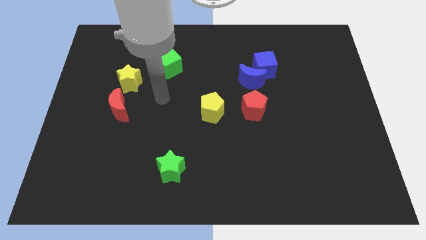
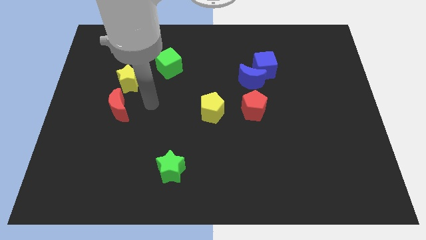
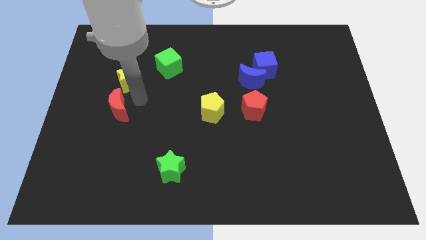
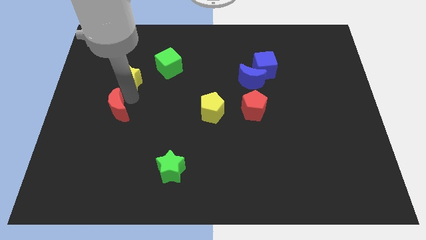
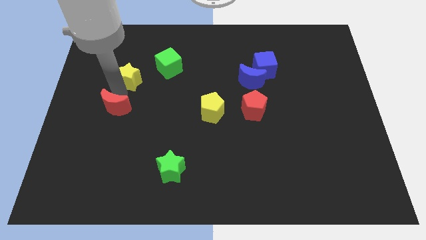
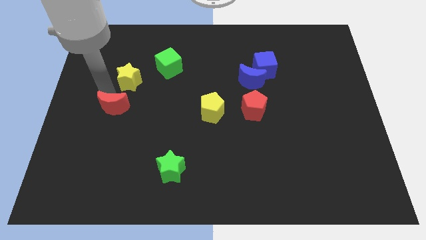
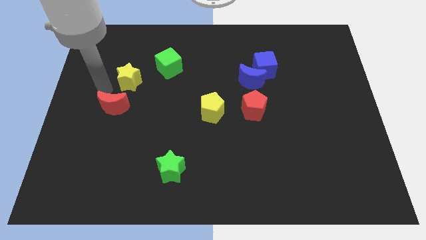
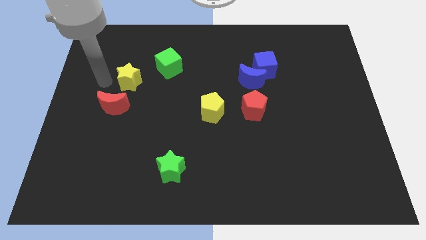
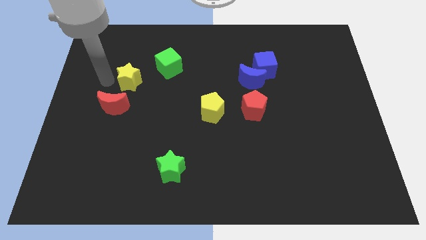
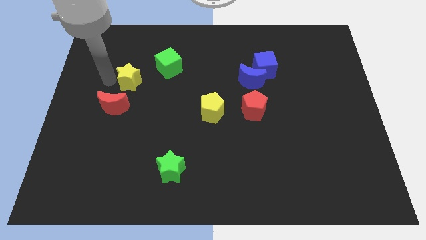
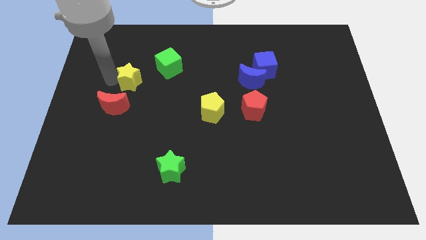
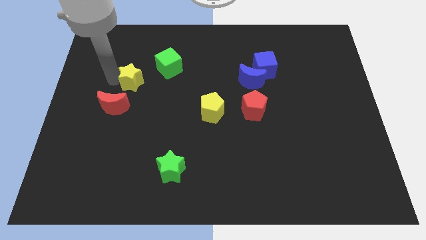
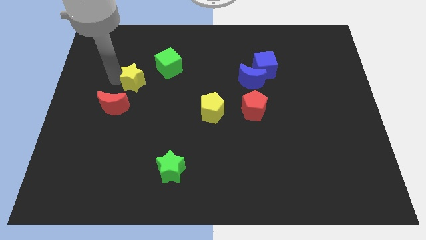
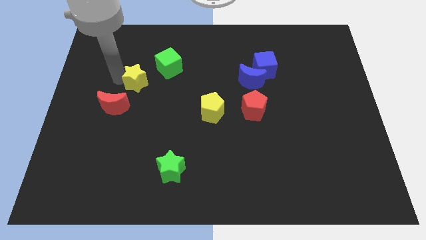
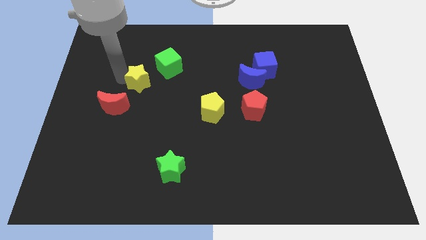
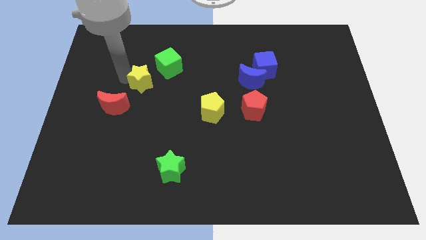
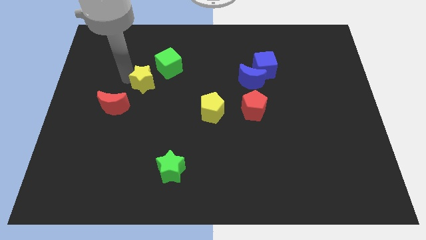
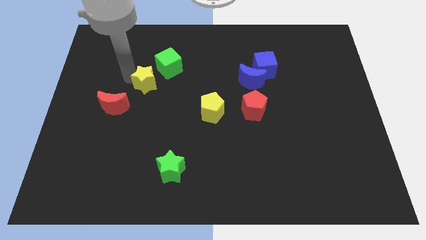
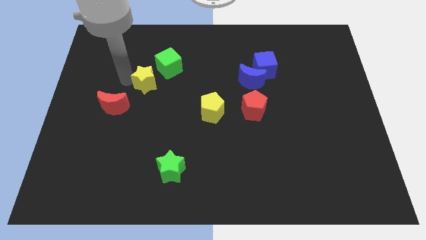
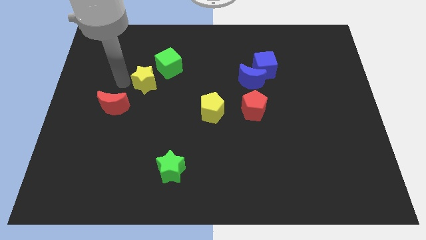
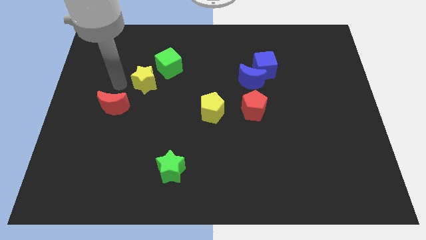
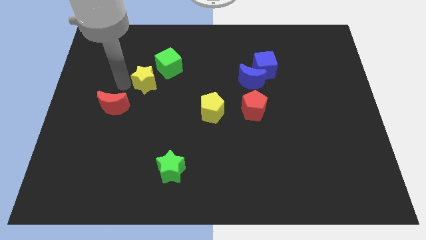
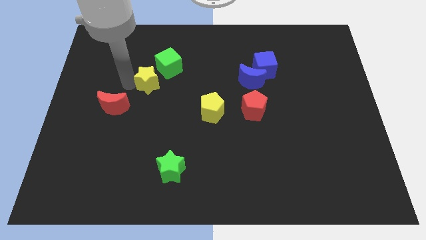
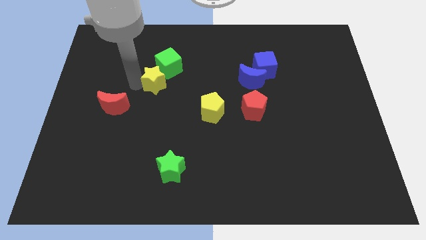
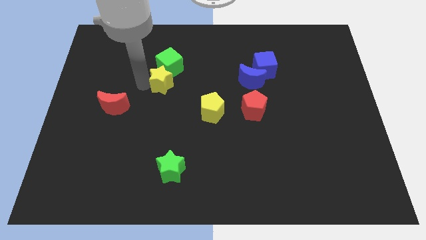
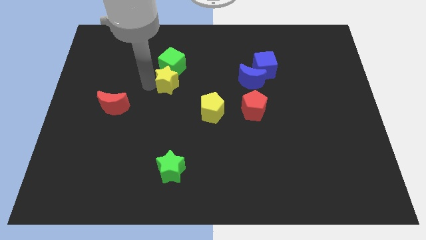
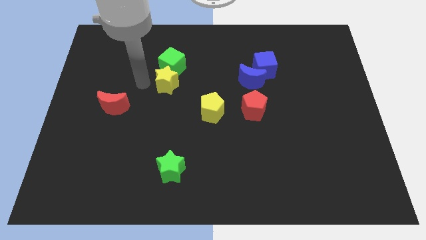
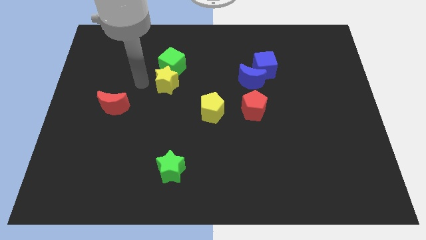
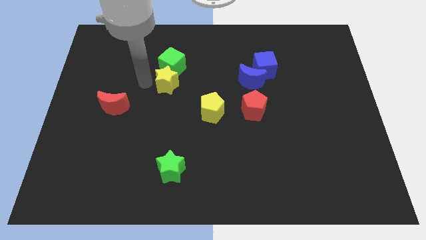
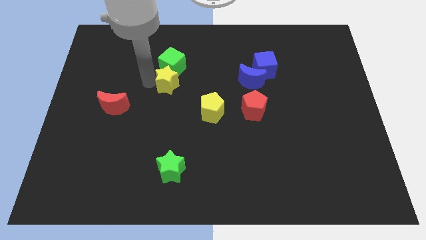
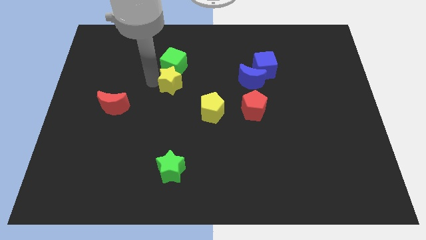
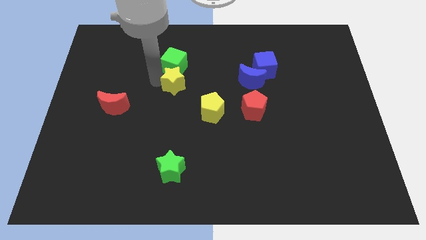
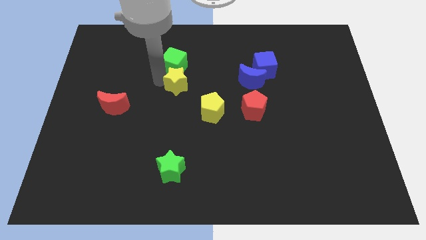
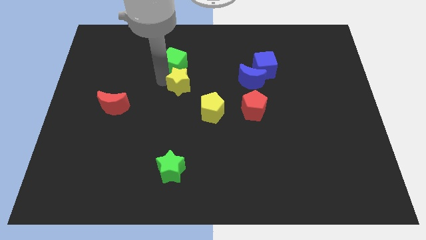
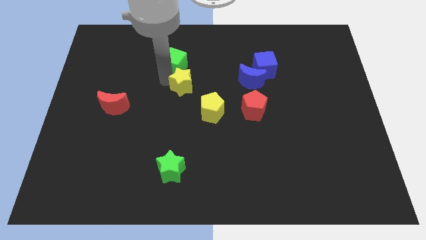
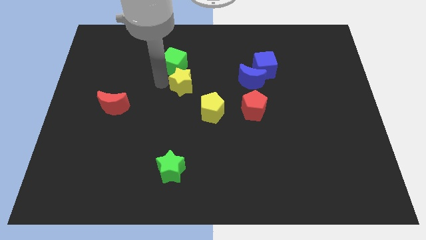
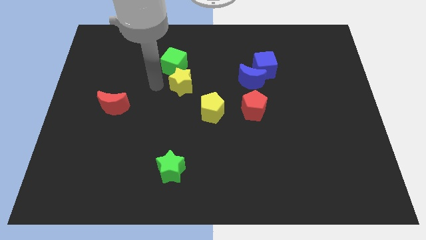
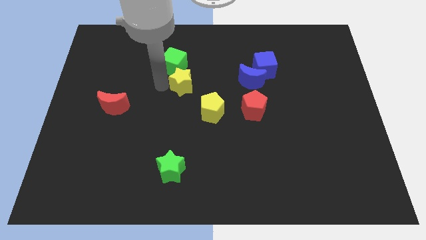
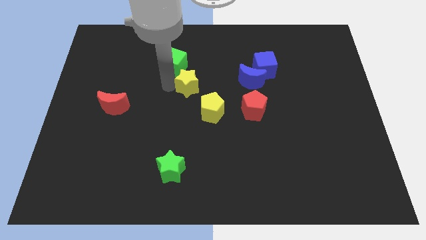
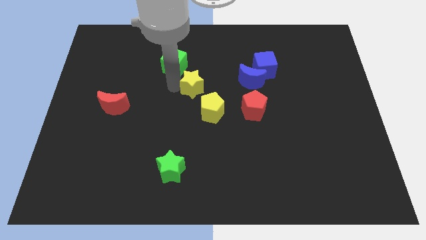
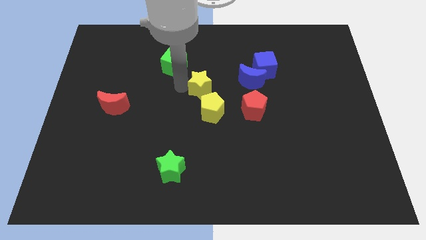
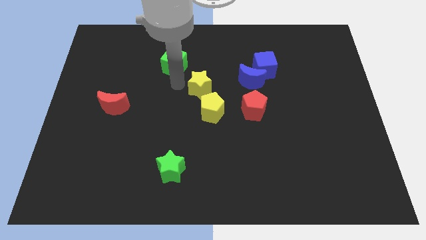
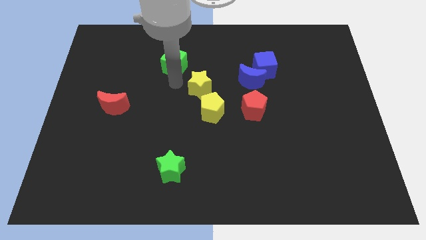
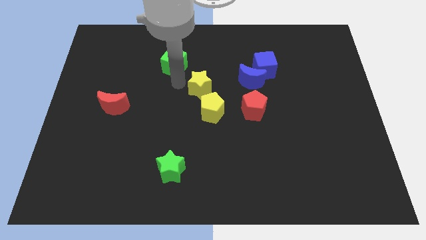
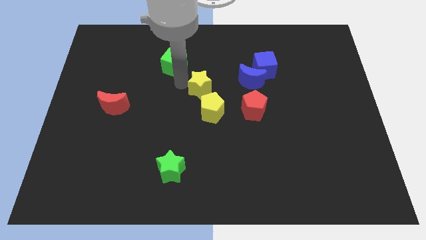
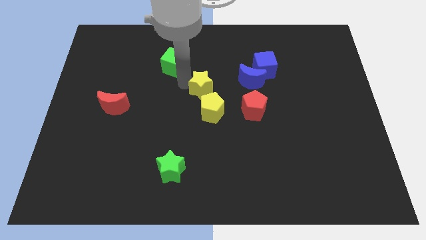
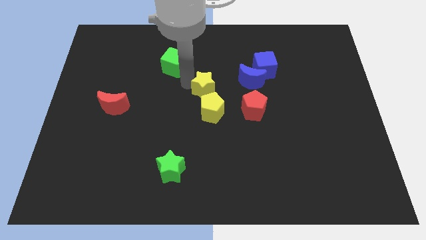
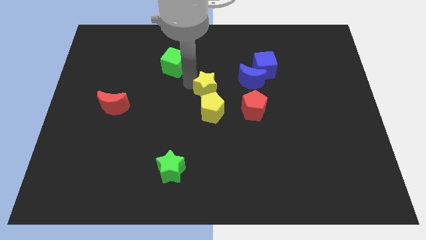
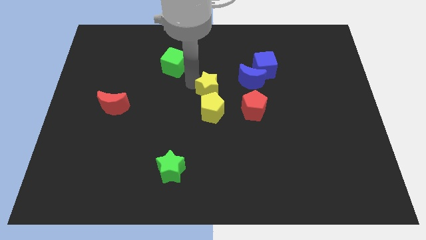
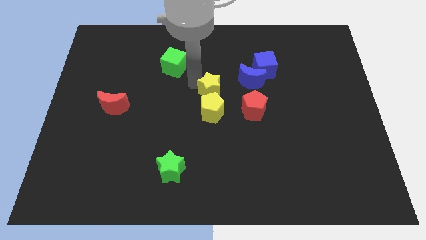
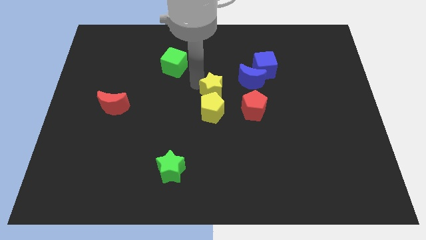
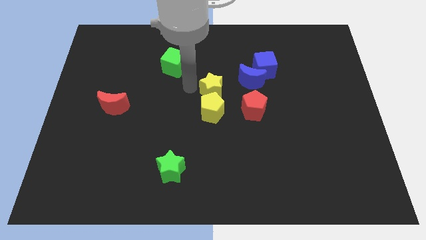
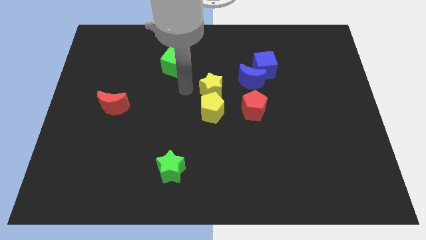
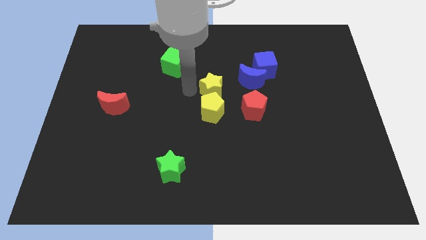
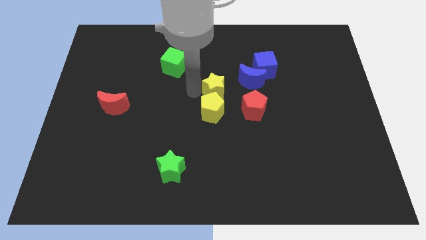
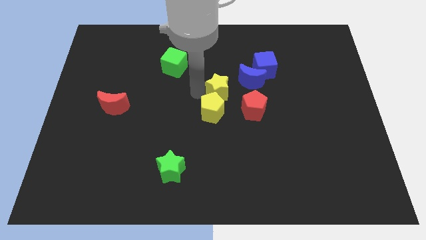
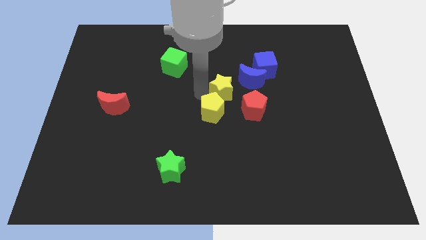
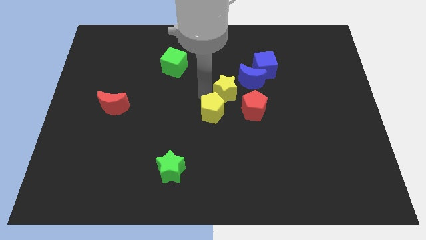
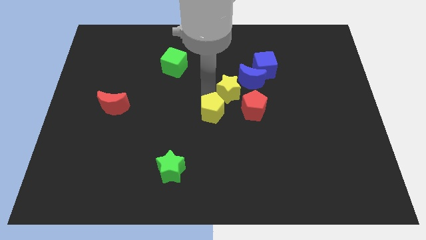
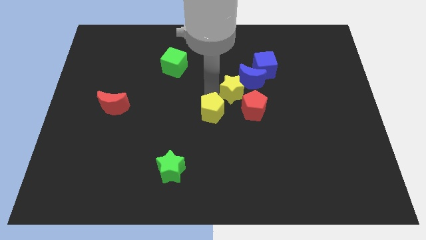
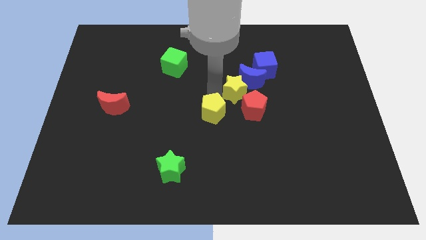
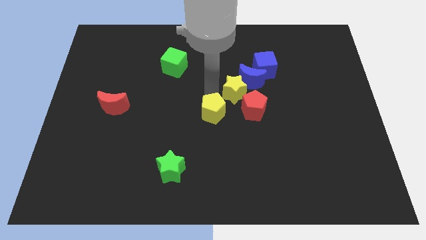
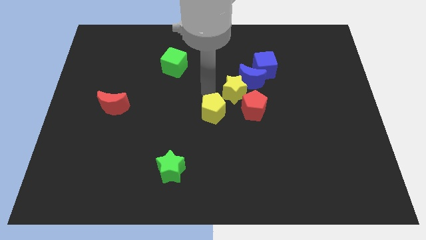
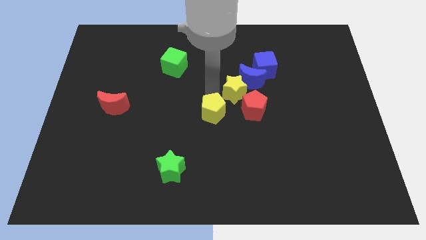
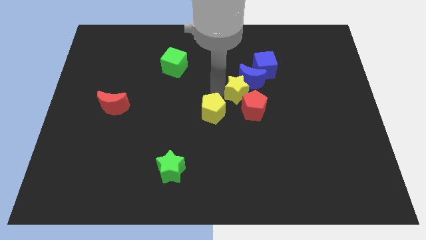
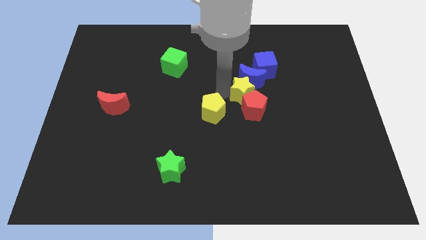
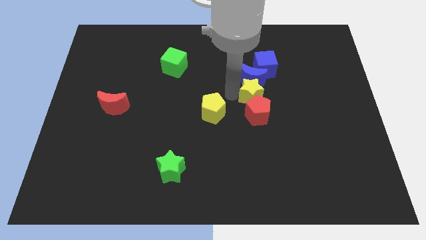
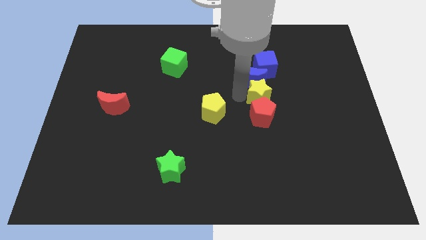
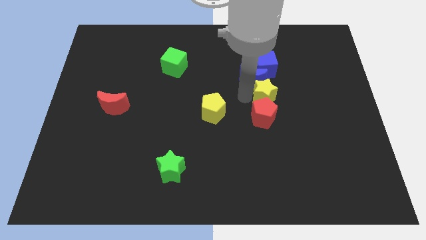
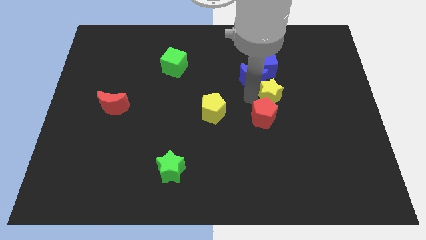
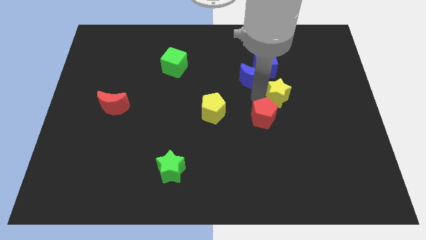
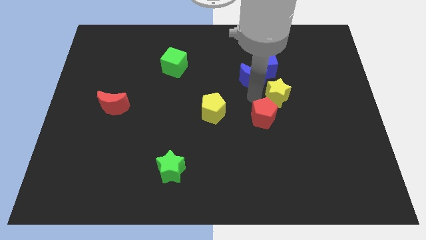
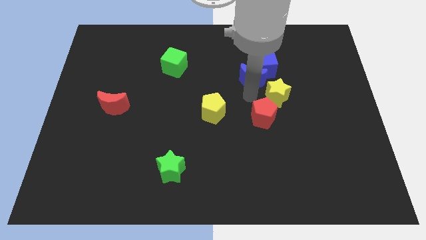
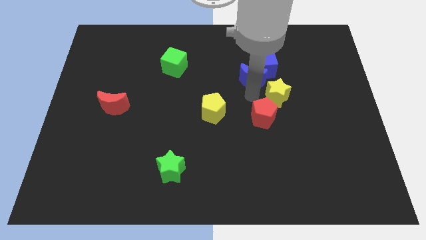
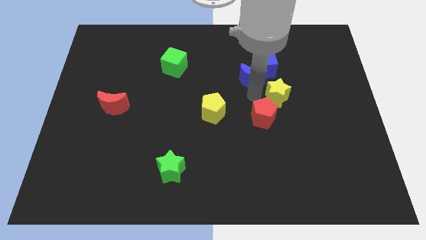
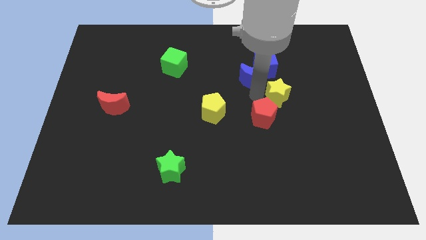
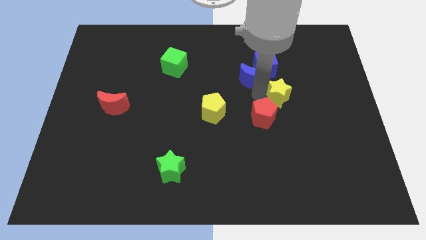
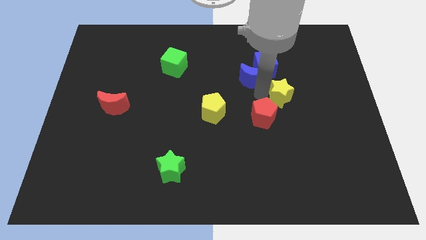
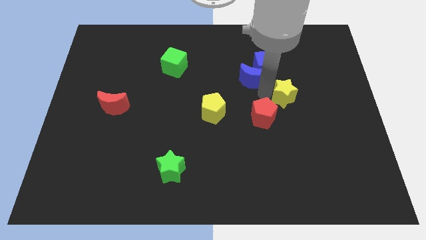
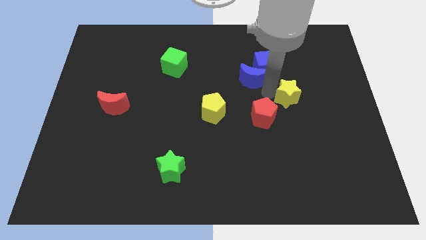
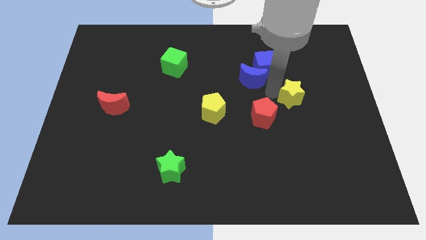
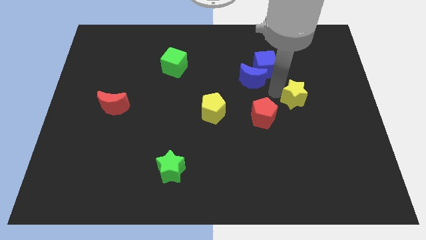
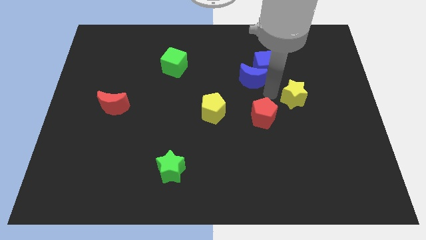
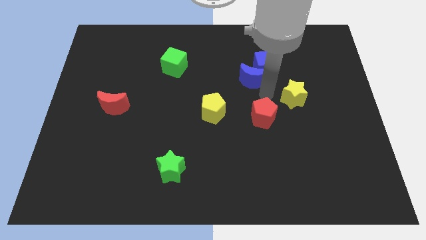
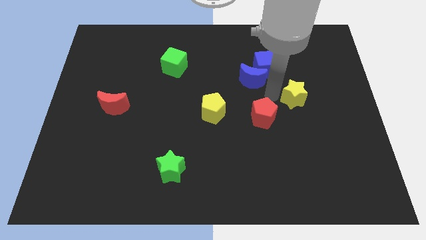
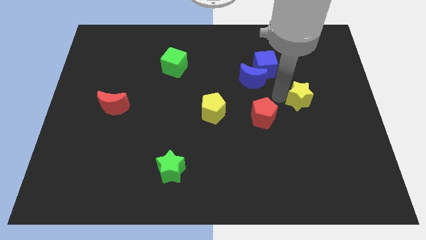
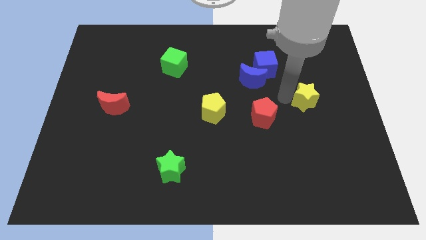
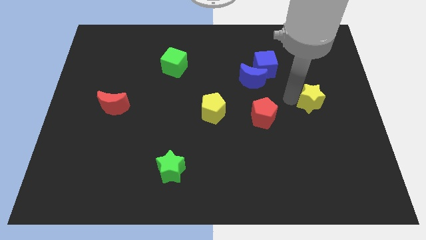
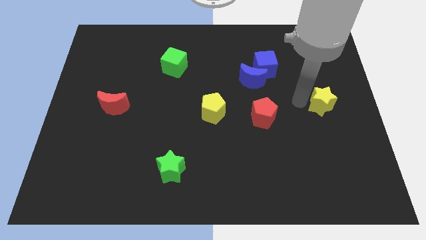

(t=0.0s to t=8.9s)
push the yellow star to the center right
